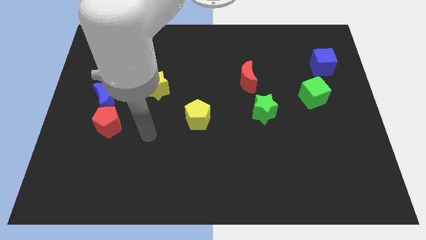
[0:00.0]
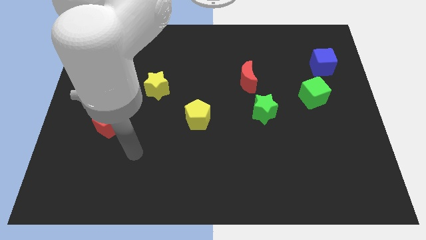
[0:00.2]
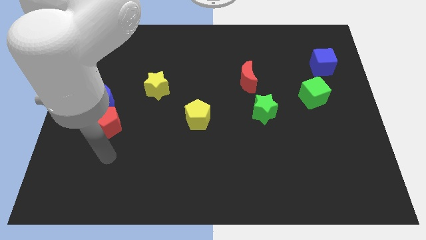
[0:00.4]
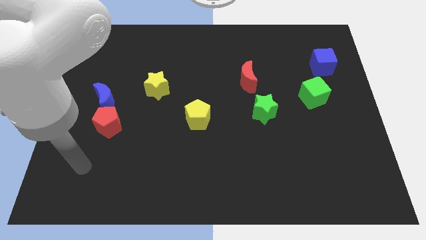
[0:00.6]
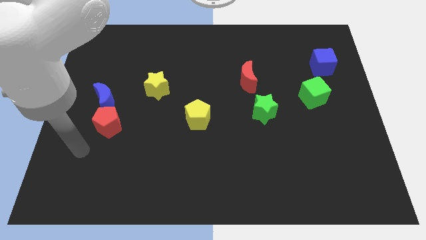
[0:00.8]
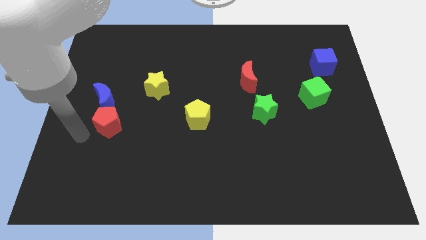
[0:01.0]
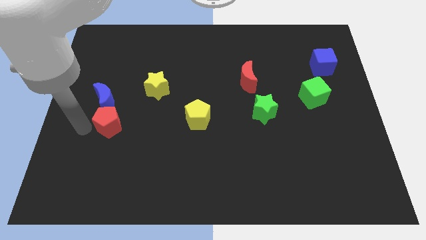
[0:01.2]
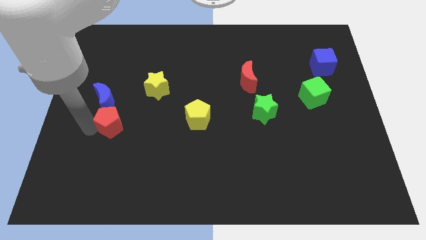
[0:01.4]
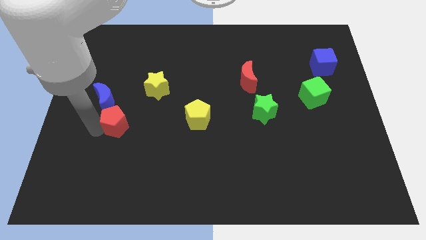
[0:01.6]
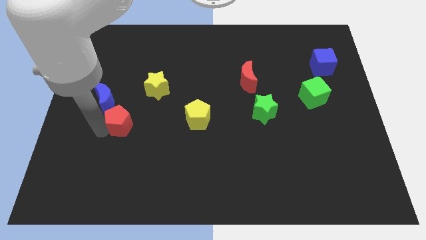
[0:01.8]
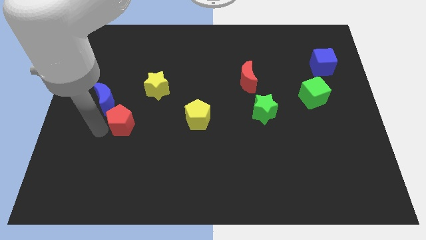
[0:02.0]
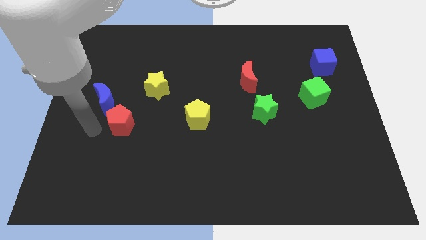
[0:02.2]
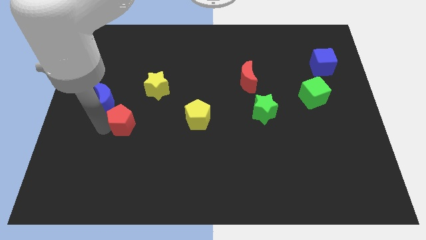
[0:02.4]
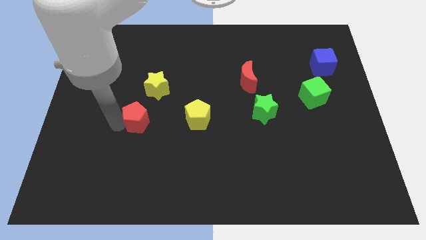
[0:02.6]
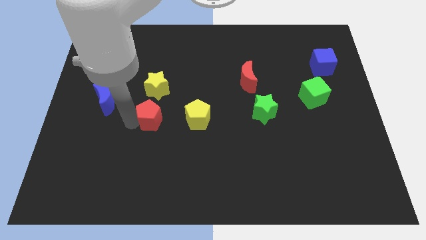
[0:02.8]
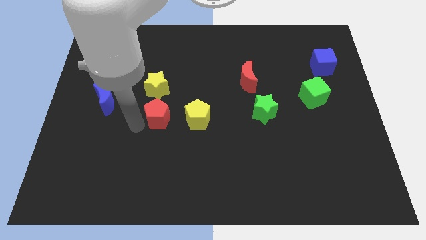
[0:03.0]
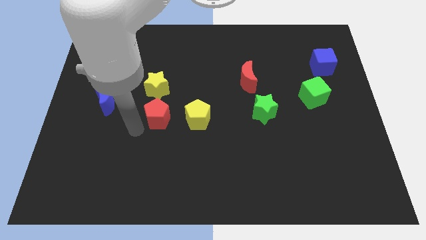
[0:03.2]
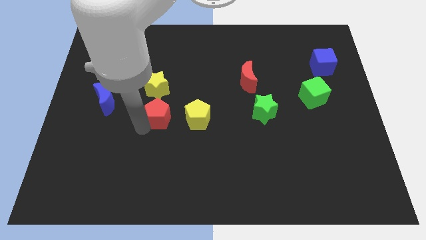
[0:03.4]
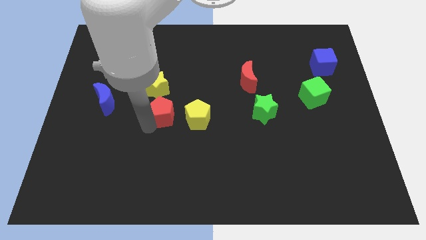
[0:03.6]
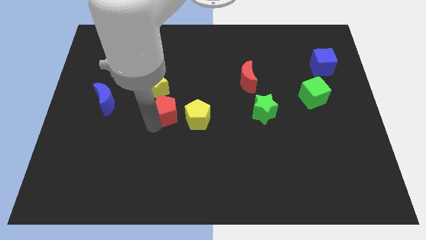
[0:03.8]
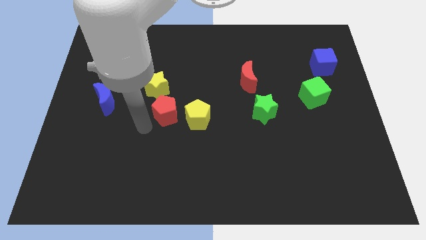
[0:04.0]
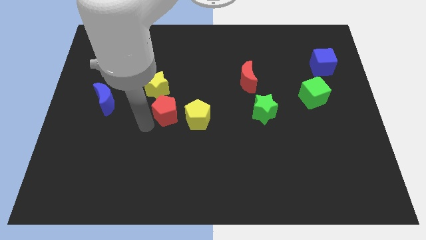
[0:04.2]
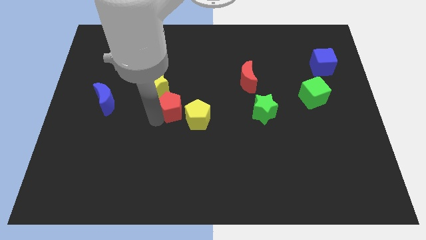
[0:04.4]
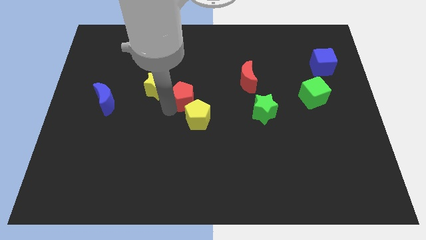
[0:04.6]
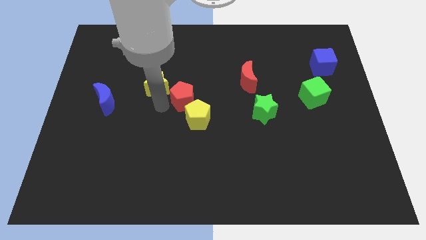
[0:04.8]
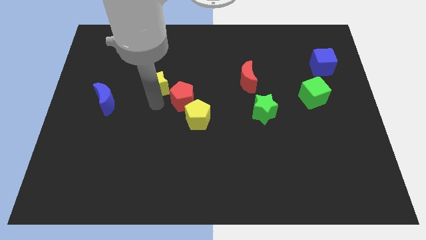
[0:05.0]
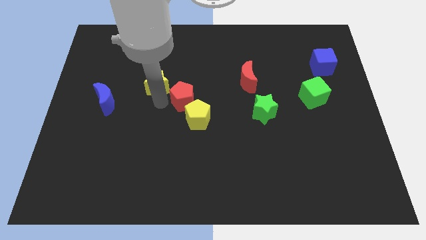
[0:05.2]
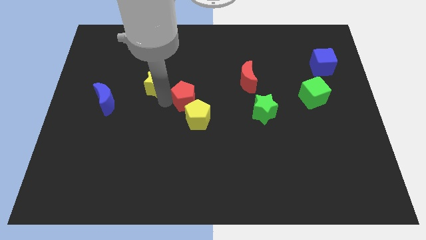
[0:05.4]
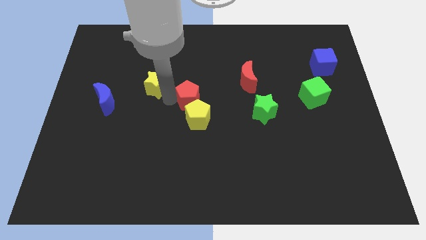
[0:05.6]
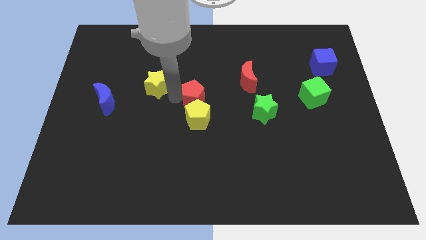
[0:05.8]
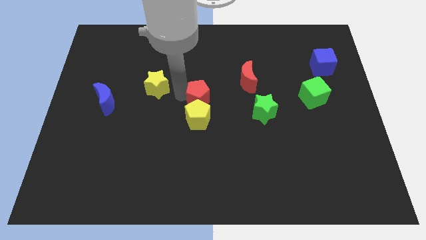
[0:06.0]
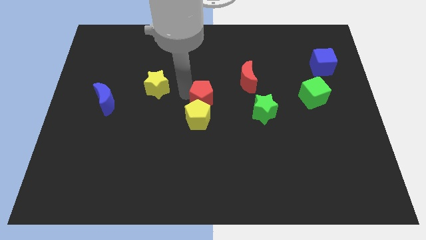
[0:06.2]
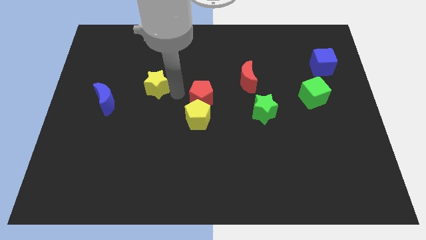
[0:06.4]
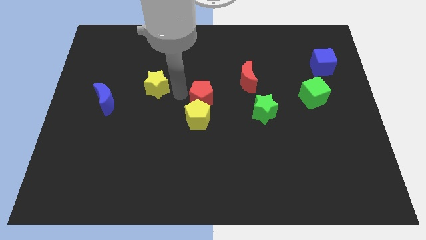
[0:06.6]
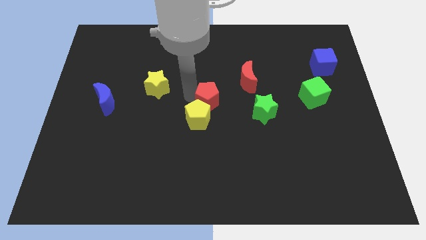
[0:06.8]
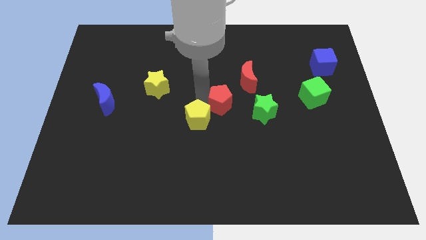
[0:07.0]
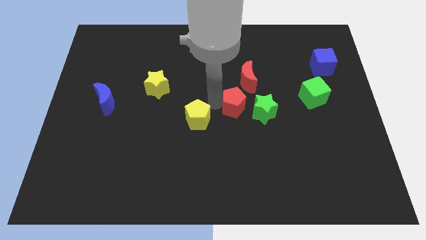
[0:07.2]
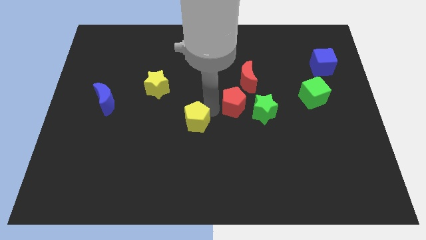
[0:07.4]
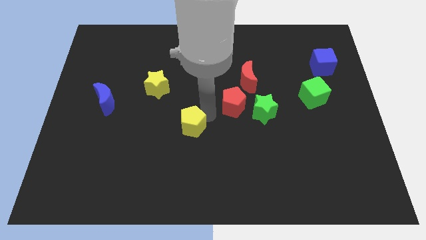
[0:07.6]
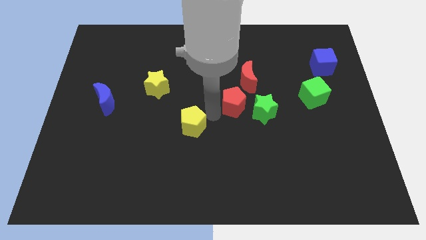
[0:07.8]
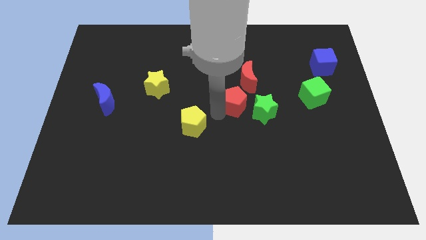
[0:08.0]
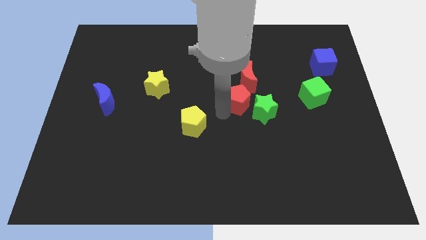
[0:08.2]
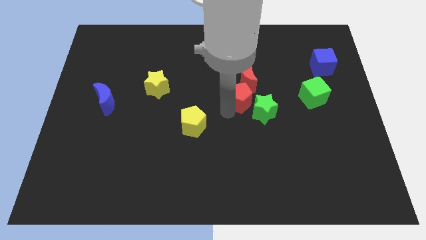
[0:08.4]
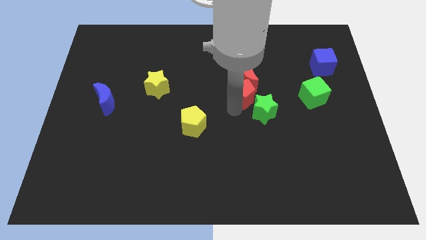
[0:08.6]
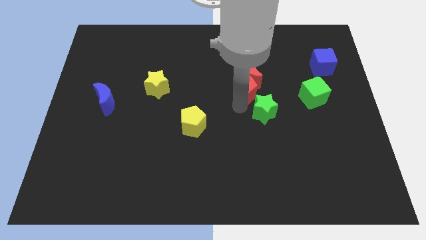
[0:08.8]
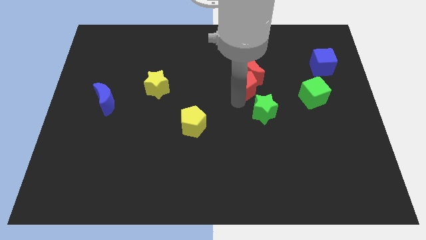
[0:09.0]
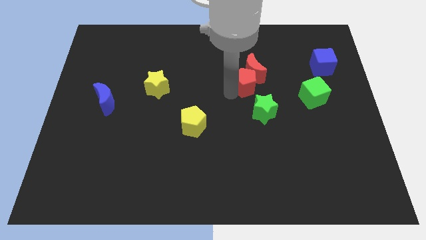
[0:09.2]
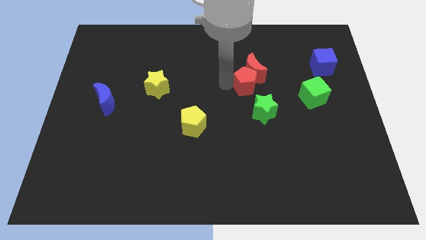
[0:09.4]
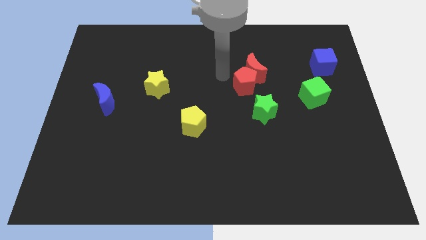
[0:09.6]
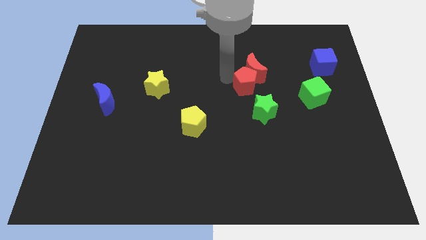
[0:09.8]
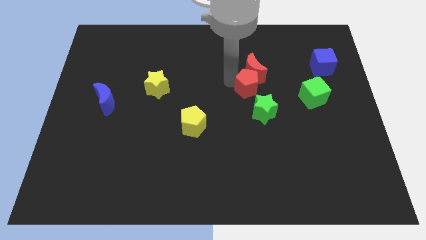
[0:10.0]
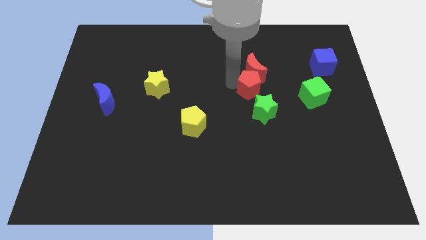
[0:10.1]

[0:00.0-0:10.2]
put the red pentagon left of the green cube

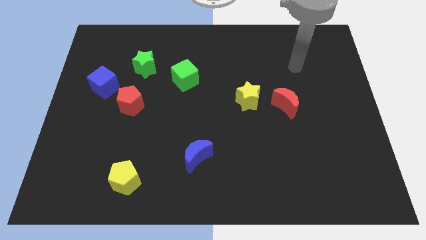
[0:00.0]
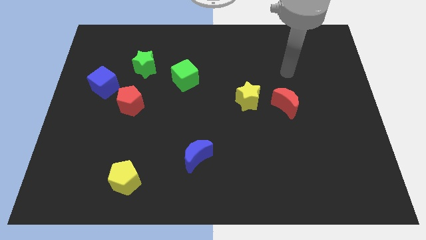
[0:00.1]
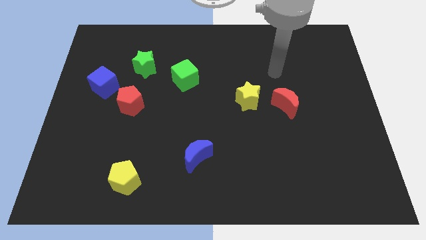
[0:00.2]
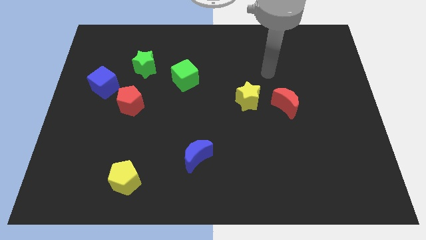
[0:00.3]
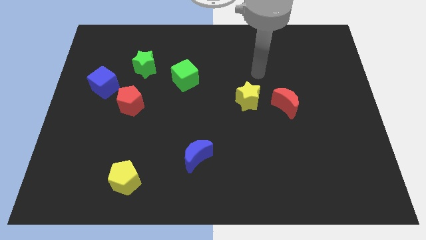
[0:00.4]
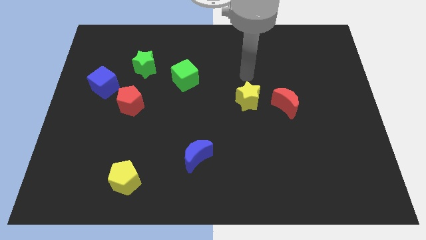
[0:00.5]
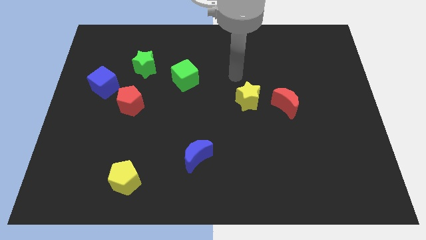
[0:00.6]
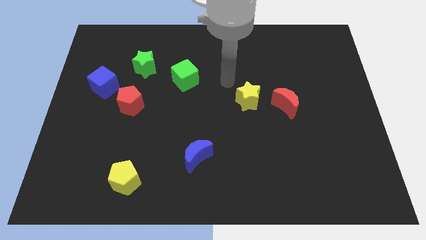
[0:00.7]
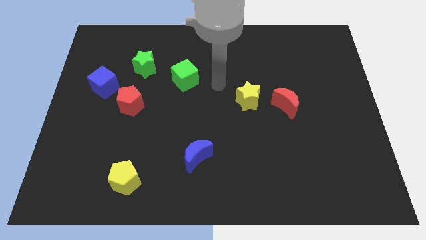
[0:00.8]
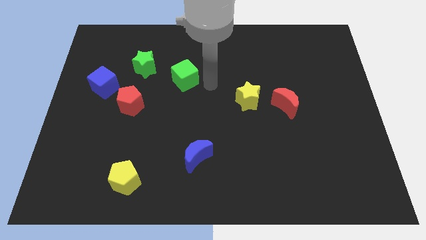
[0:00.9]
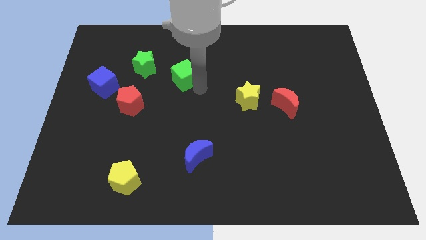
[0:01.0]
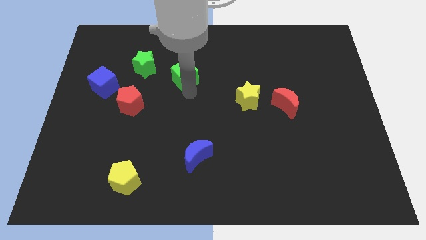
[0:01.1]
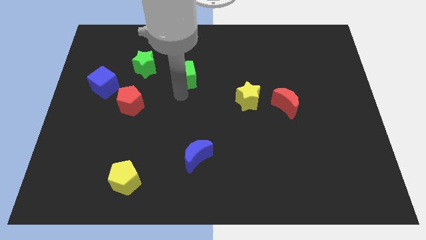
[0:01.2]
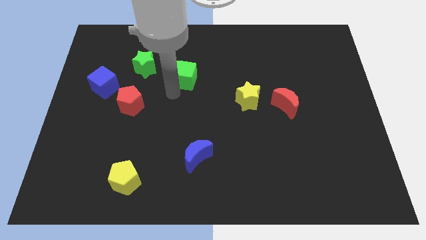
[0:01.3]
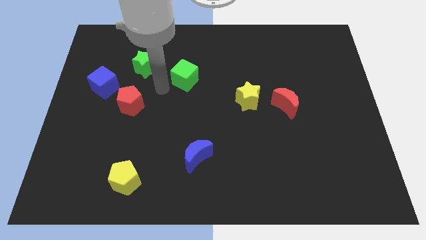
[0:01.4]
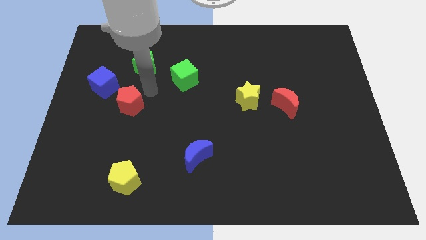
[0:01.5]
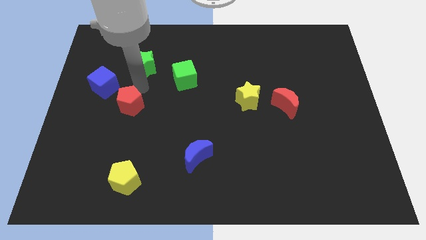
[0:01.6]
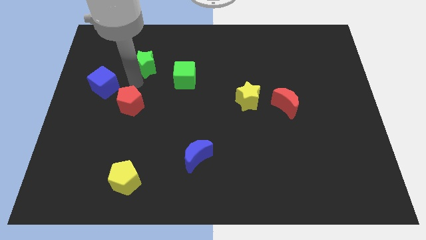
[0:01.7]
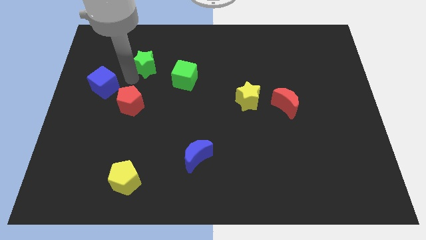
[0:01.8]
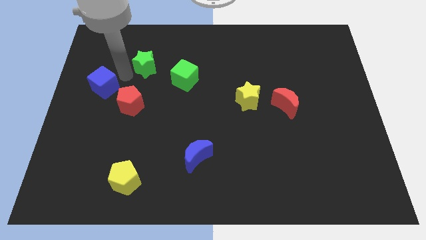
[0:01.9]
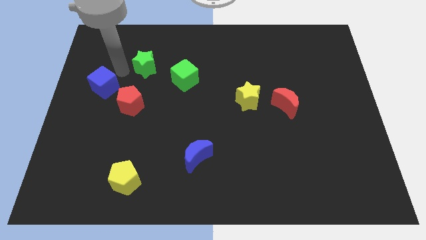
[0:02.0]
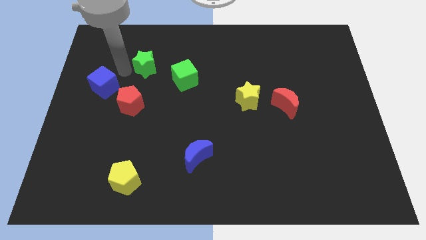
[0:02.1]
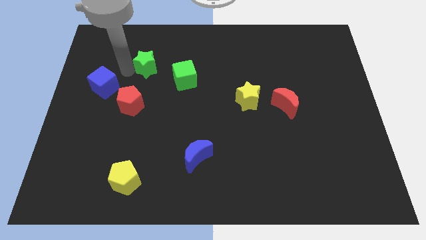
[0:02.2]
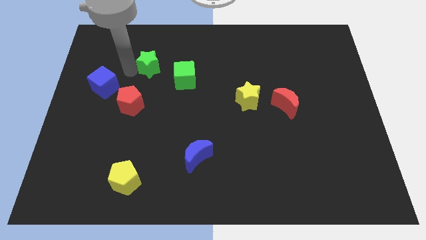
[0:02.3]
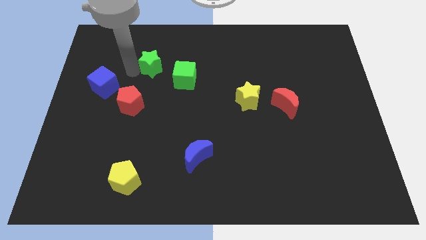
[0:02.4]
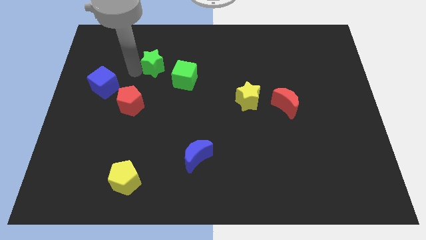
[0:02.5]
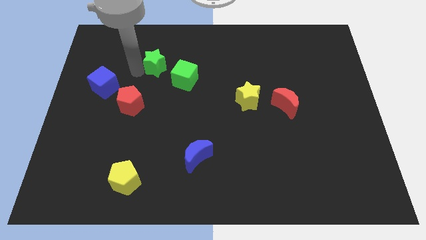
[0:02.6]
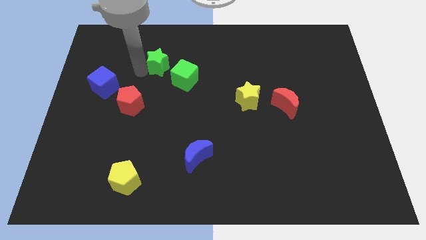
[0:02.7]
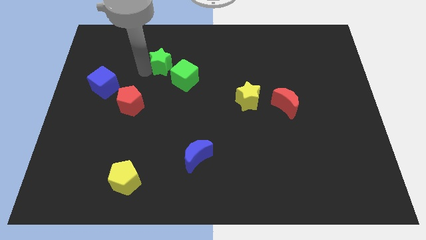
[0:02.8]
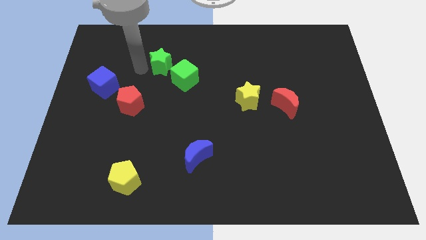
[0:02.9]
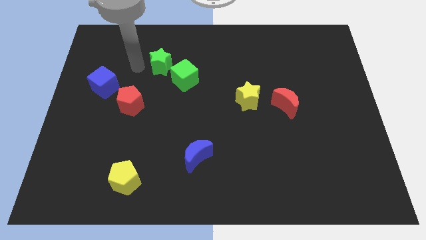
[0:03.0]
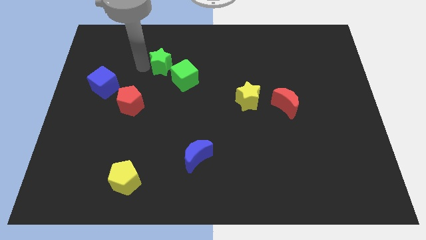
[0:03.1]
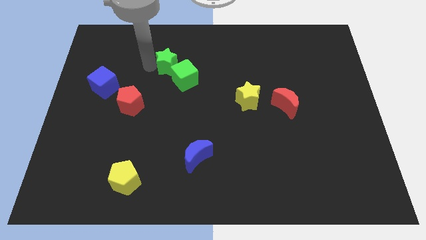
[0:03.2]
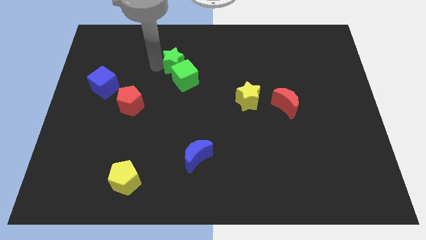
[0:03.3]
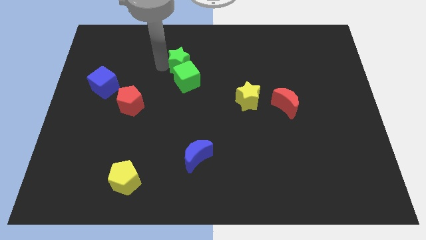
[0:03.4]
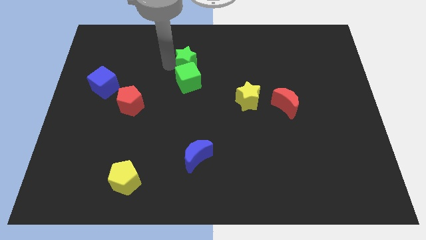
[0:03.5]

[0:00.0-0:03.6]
slide the green star to the top right side of the green cube

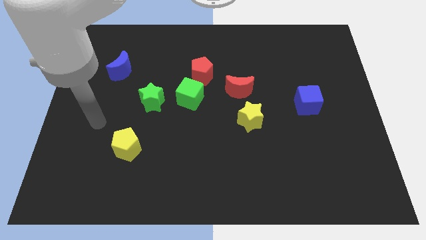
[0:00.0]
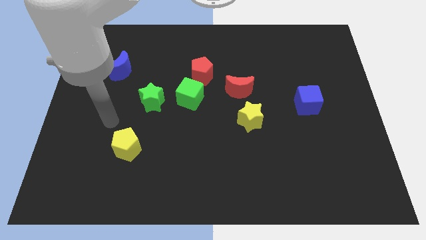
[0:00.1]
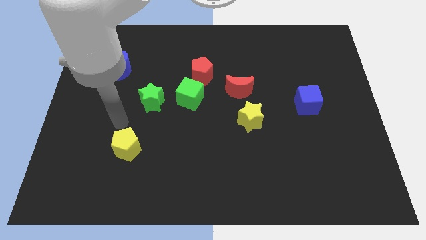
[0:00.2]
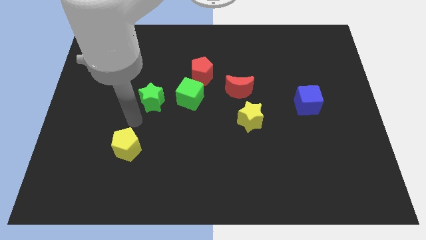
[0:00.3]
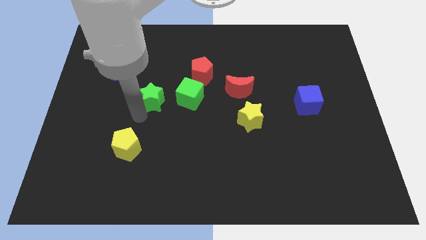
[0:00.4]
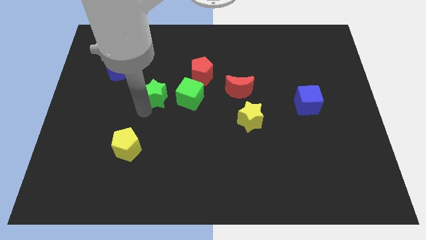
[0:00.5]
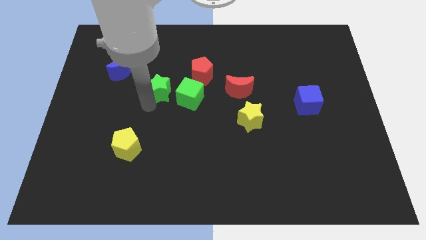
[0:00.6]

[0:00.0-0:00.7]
put the green star to the top left side of the green cube
